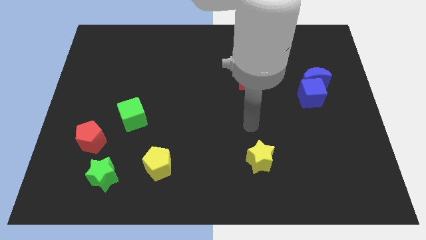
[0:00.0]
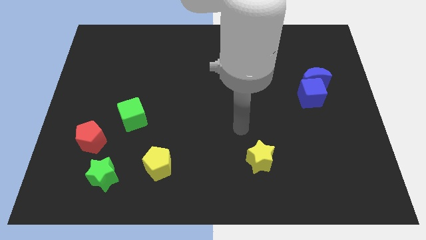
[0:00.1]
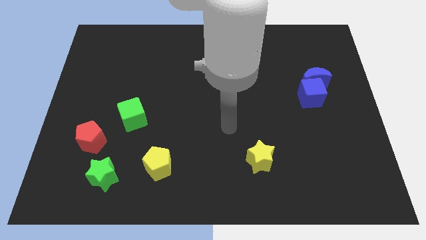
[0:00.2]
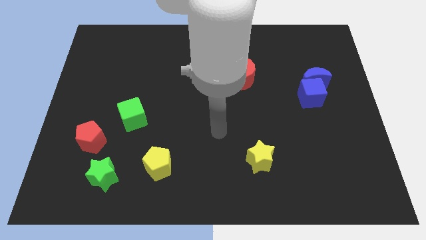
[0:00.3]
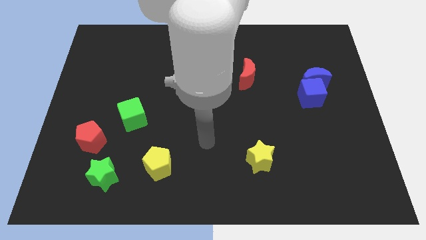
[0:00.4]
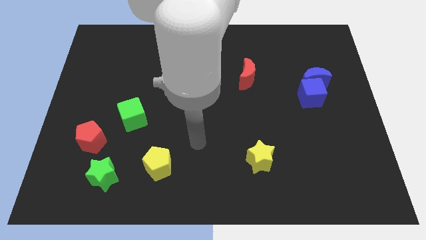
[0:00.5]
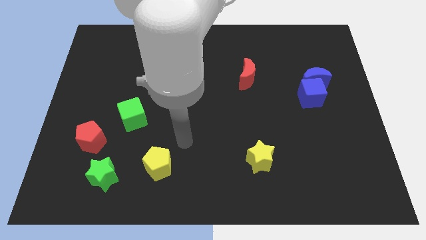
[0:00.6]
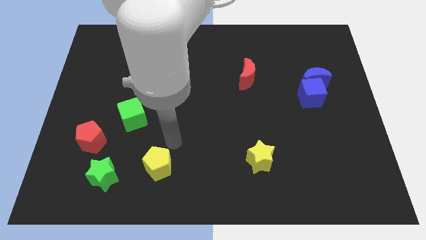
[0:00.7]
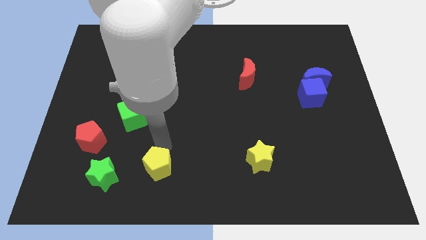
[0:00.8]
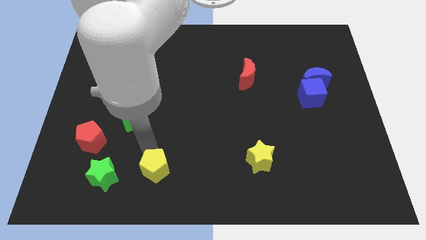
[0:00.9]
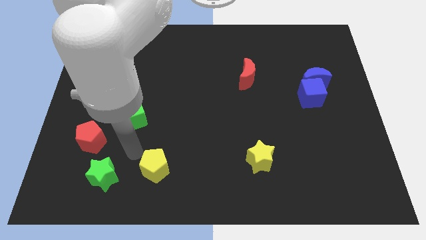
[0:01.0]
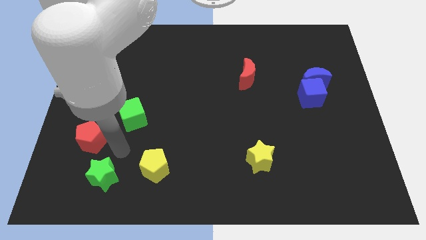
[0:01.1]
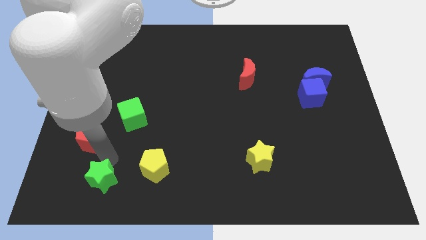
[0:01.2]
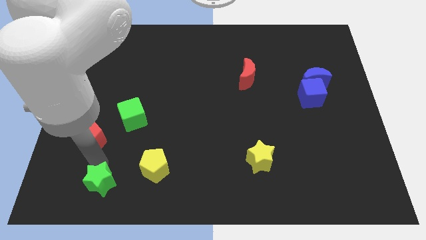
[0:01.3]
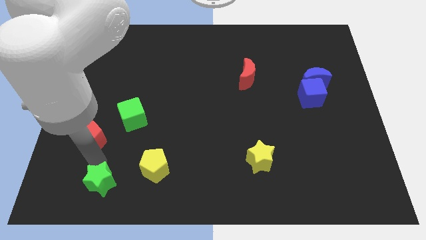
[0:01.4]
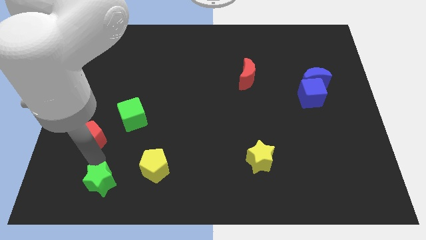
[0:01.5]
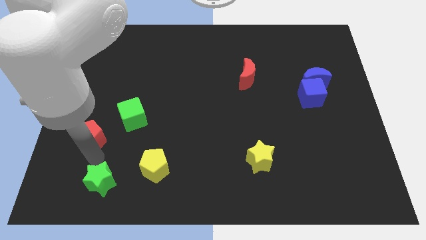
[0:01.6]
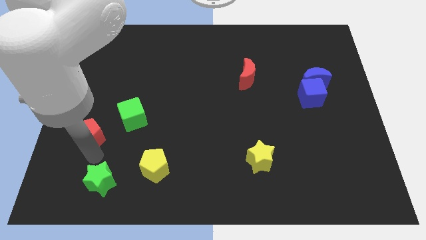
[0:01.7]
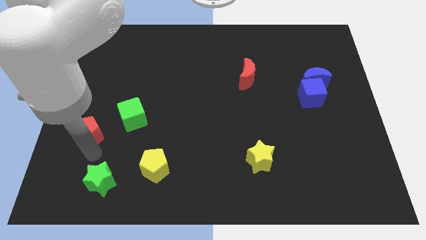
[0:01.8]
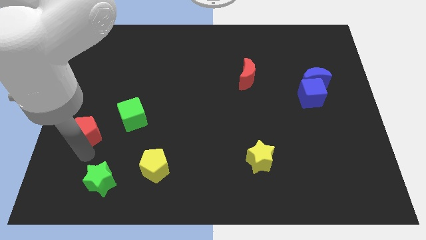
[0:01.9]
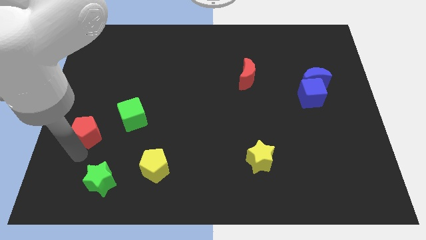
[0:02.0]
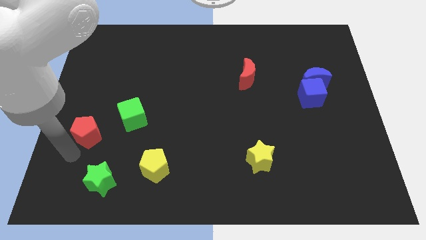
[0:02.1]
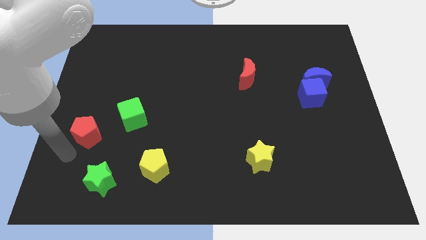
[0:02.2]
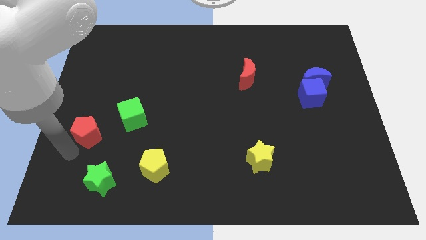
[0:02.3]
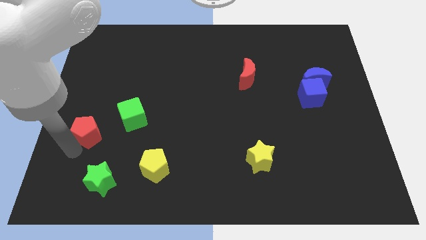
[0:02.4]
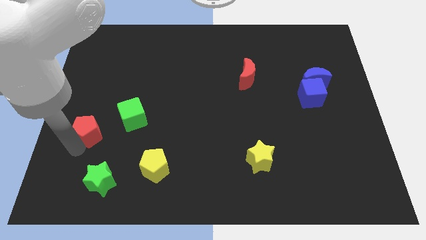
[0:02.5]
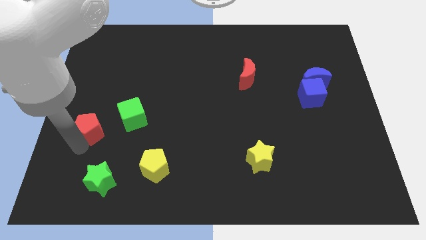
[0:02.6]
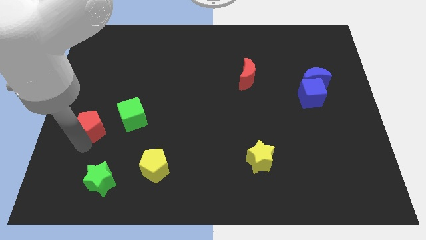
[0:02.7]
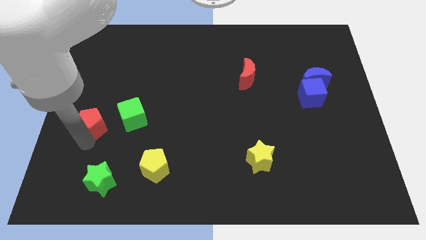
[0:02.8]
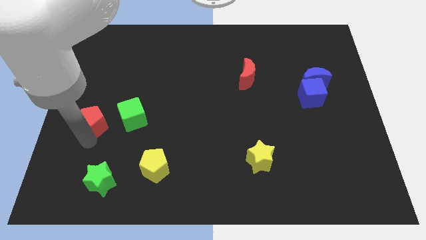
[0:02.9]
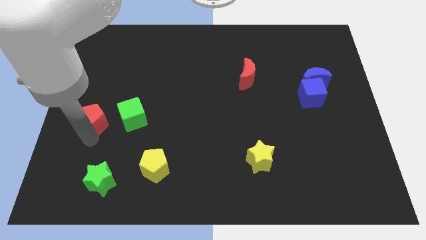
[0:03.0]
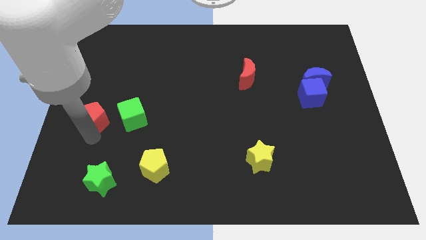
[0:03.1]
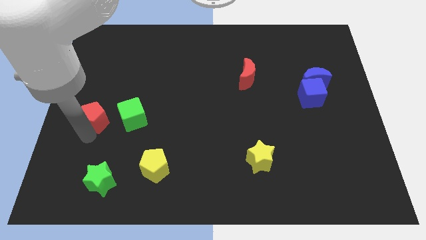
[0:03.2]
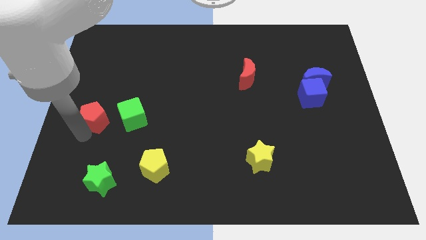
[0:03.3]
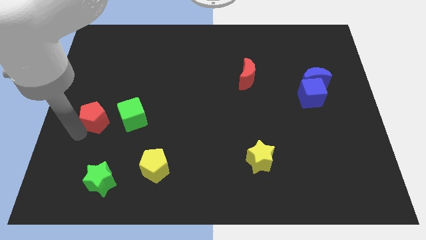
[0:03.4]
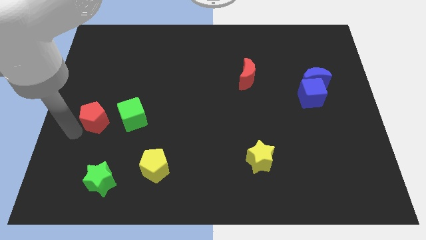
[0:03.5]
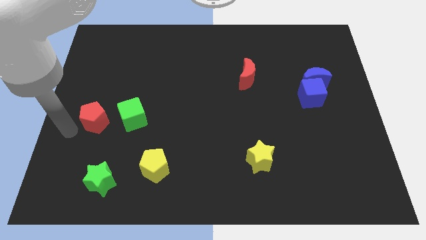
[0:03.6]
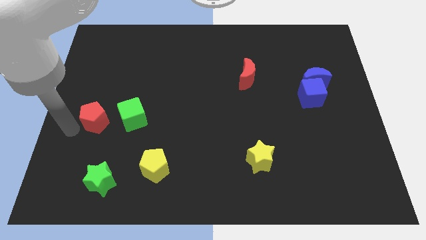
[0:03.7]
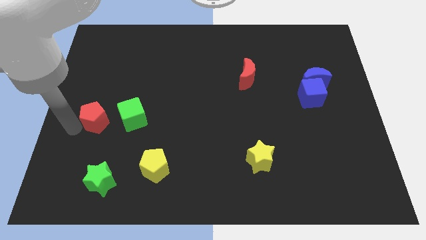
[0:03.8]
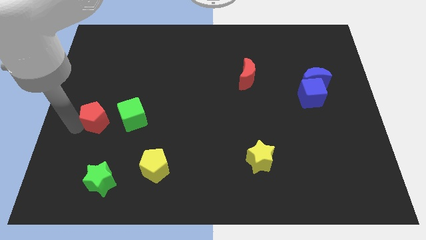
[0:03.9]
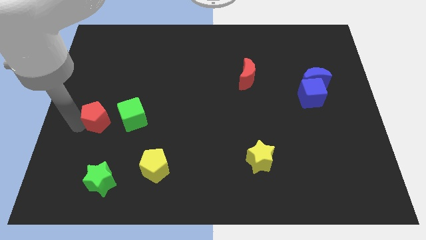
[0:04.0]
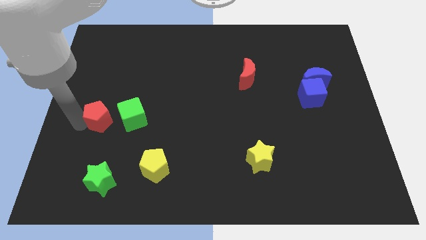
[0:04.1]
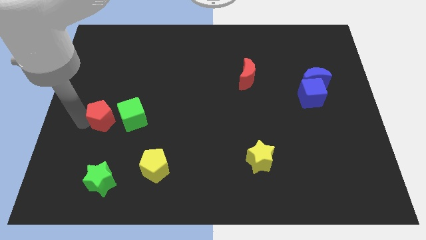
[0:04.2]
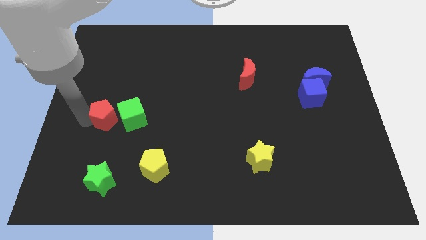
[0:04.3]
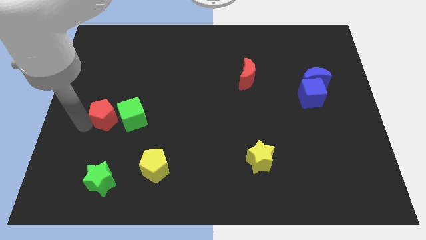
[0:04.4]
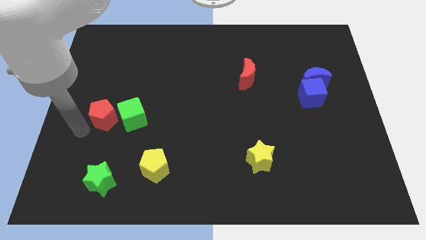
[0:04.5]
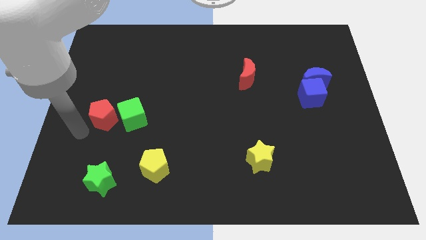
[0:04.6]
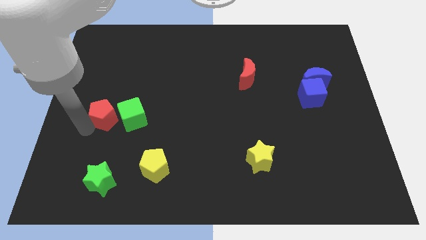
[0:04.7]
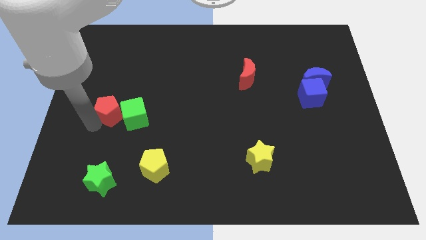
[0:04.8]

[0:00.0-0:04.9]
move the red pentagon a little up and then to the right

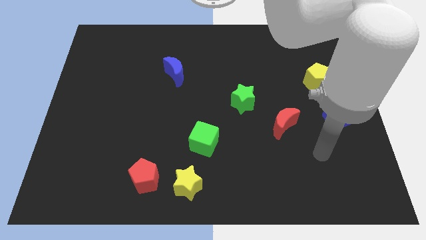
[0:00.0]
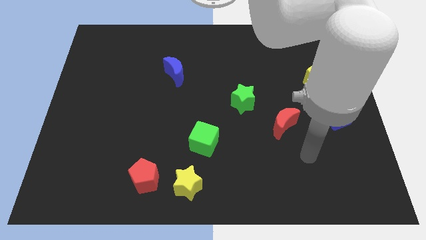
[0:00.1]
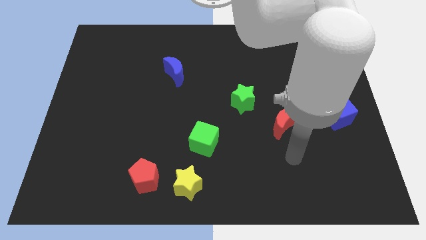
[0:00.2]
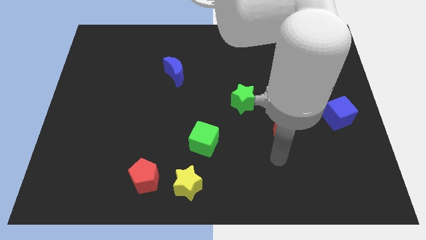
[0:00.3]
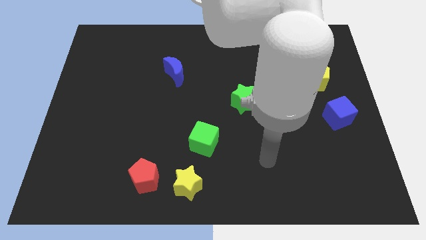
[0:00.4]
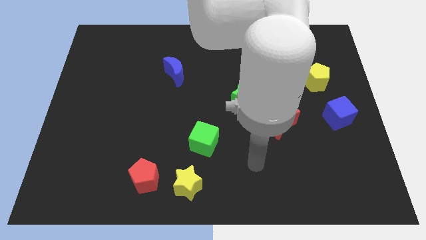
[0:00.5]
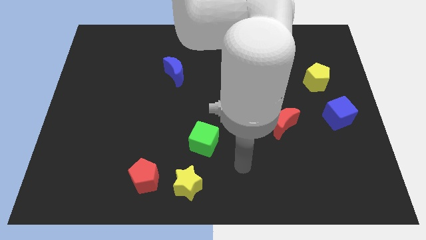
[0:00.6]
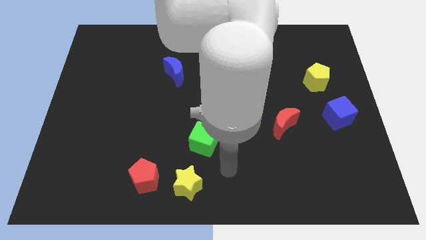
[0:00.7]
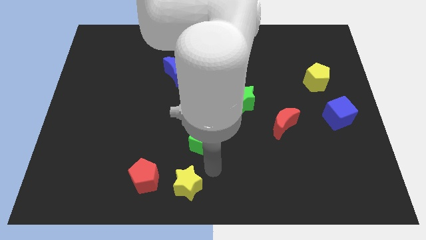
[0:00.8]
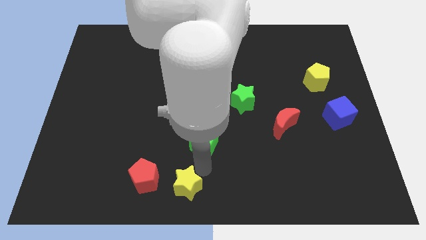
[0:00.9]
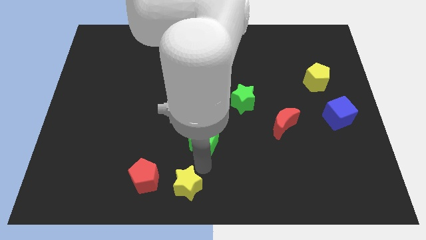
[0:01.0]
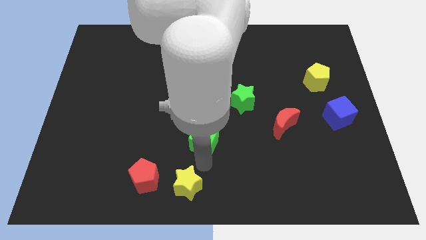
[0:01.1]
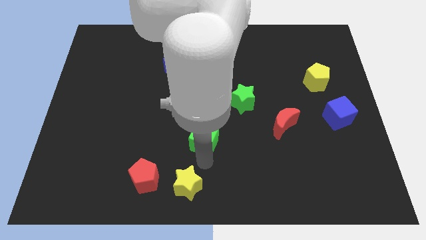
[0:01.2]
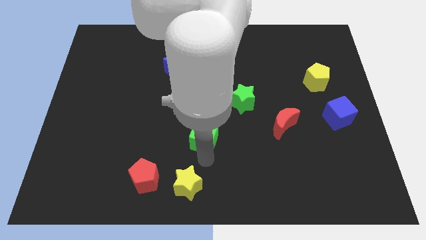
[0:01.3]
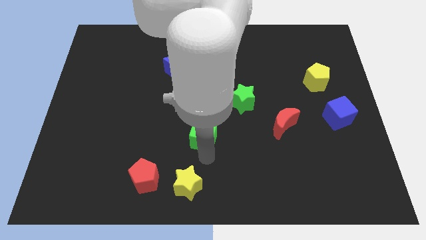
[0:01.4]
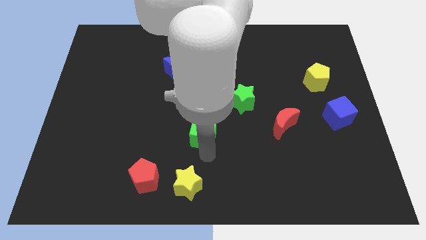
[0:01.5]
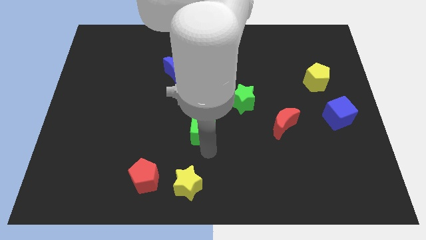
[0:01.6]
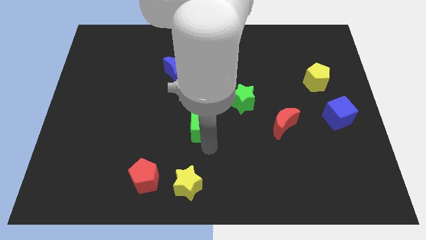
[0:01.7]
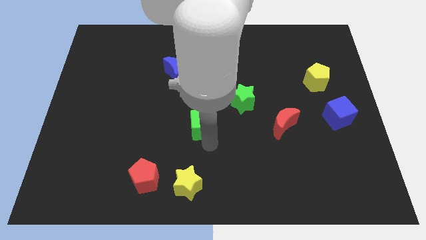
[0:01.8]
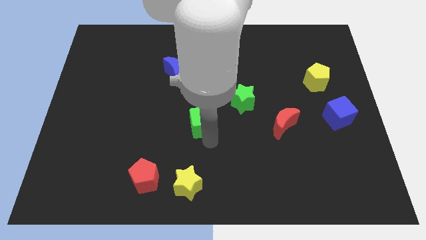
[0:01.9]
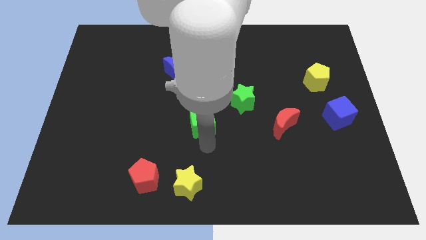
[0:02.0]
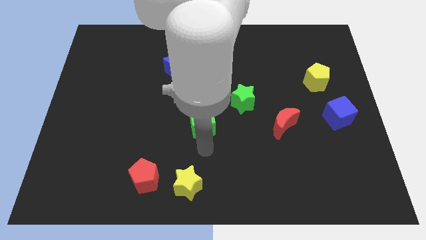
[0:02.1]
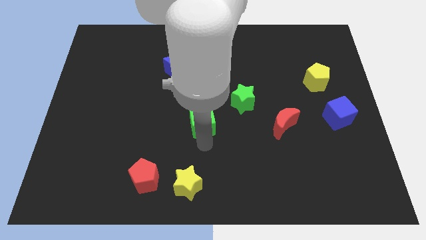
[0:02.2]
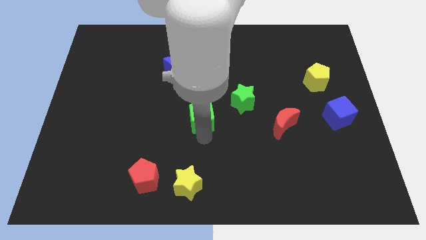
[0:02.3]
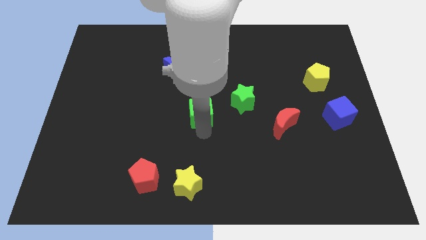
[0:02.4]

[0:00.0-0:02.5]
slightly slide the green cube up

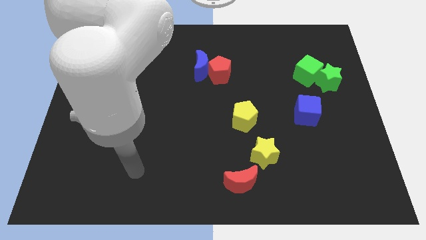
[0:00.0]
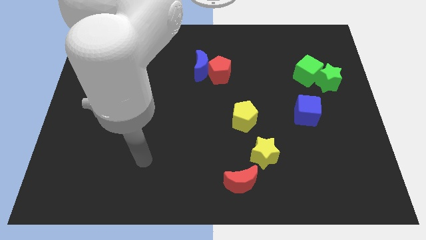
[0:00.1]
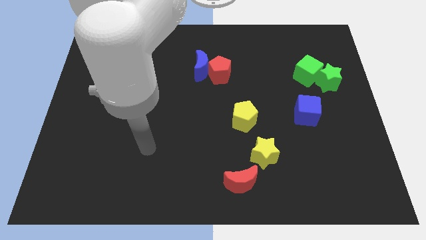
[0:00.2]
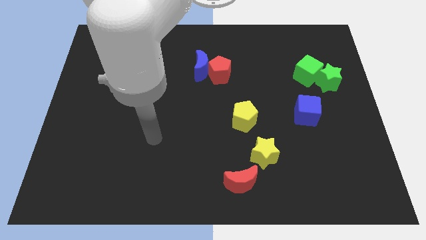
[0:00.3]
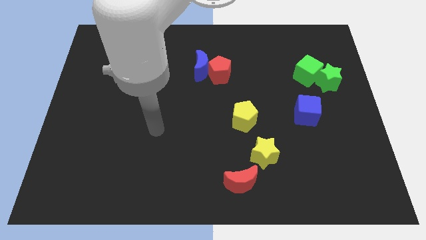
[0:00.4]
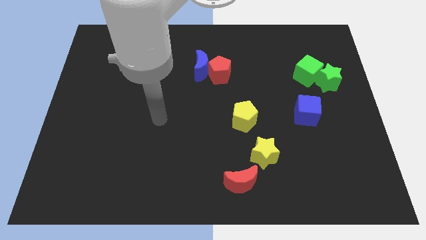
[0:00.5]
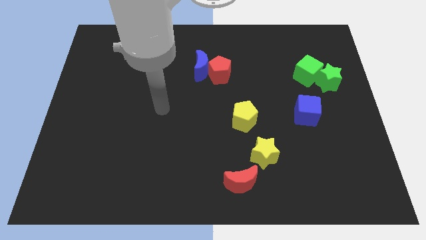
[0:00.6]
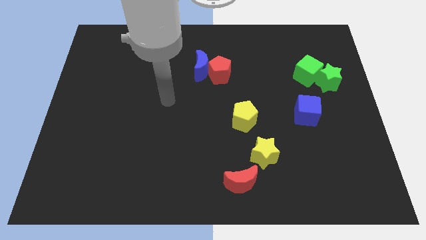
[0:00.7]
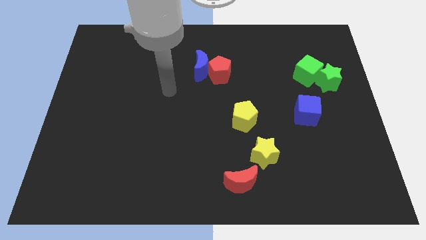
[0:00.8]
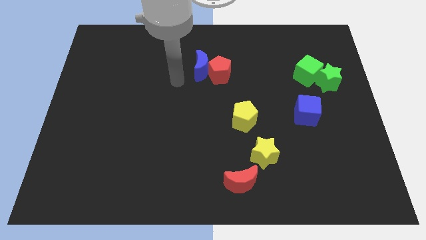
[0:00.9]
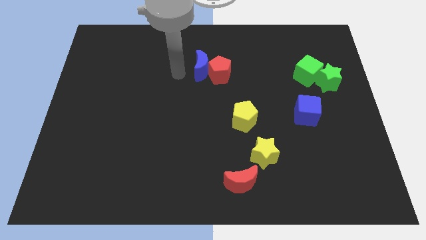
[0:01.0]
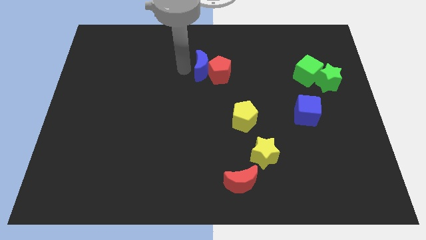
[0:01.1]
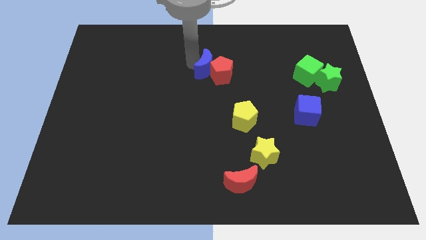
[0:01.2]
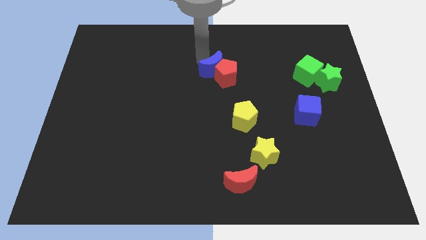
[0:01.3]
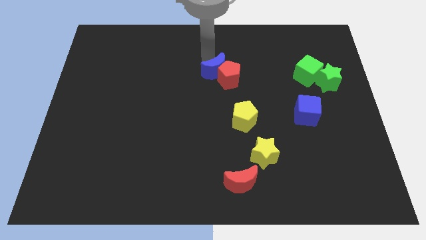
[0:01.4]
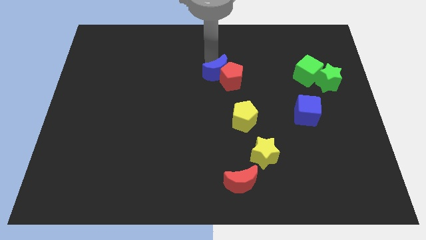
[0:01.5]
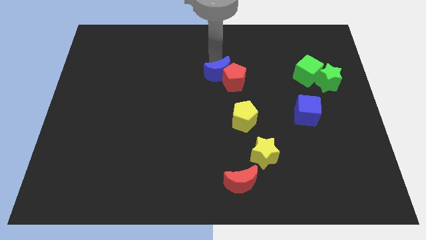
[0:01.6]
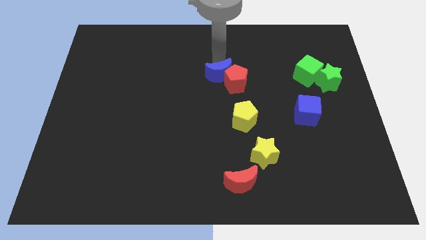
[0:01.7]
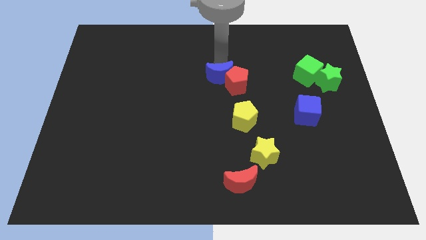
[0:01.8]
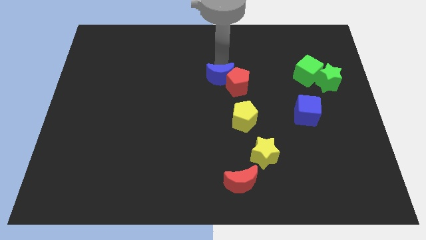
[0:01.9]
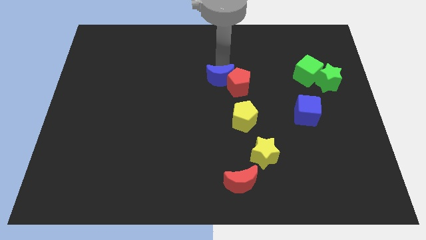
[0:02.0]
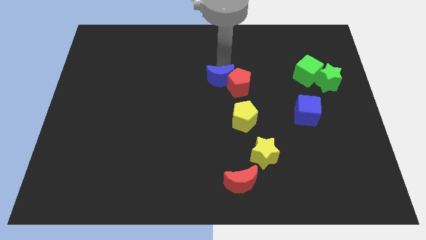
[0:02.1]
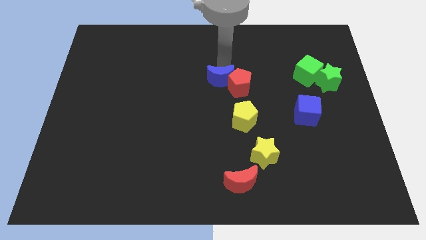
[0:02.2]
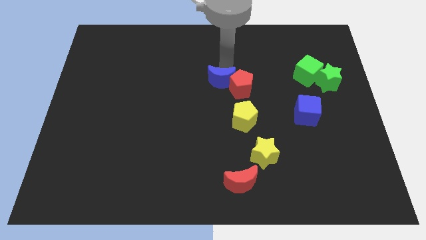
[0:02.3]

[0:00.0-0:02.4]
move the red pentagon down and right slightly
